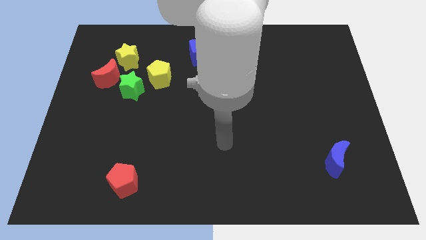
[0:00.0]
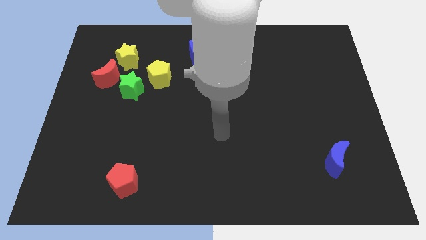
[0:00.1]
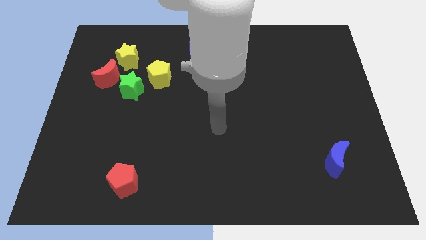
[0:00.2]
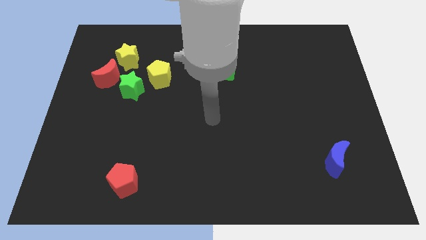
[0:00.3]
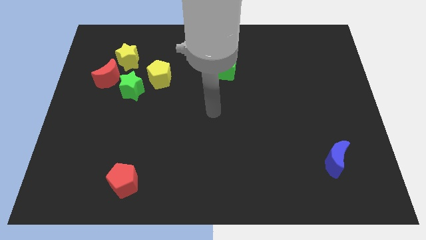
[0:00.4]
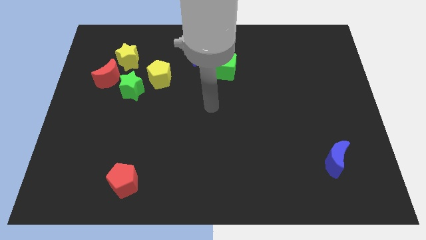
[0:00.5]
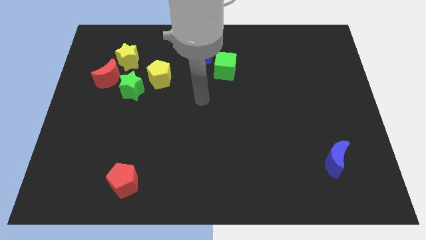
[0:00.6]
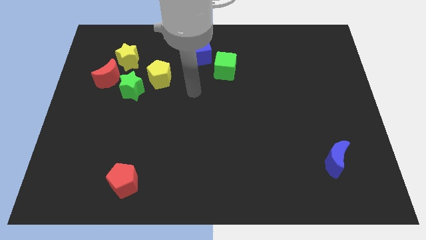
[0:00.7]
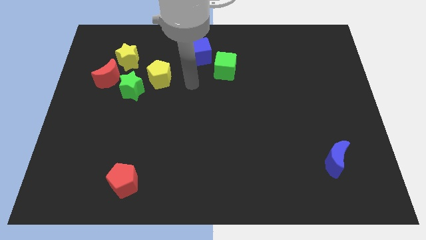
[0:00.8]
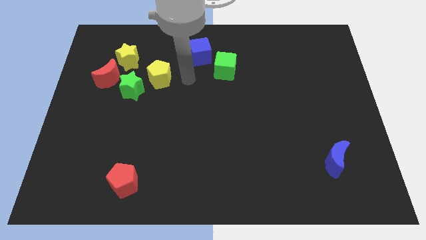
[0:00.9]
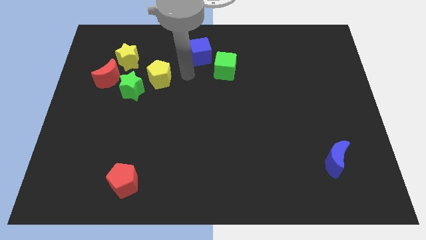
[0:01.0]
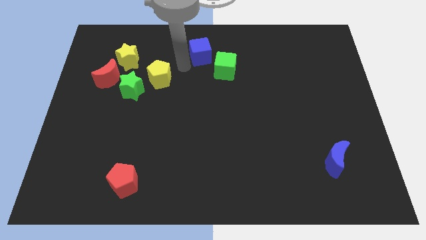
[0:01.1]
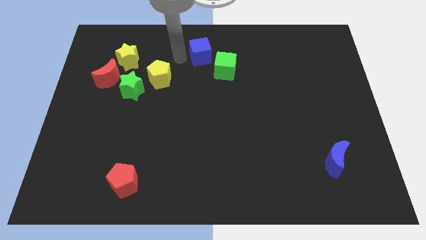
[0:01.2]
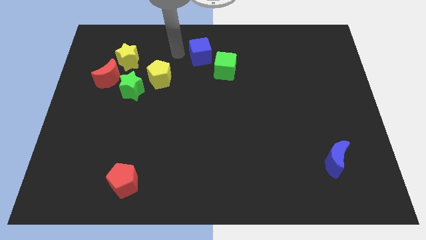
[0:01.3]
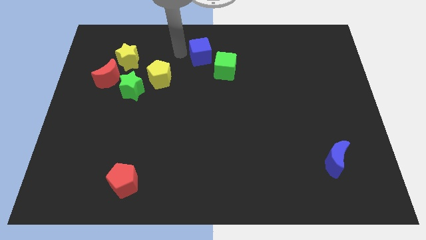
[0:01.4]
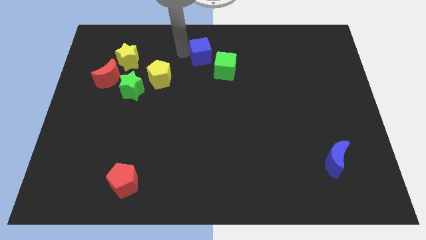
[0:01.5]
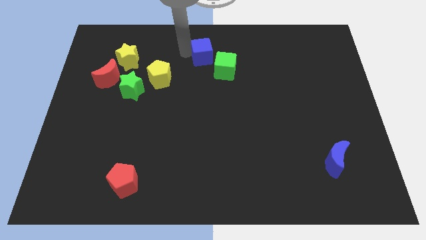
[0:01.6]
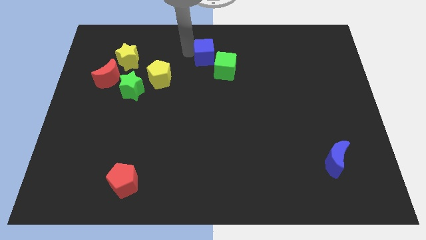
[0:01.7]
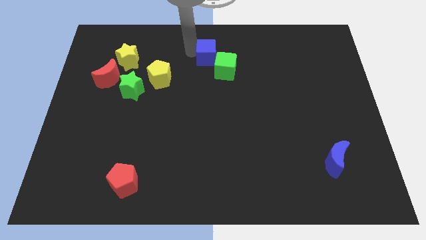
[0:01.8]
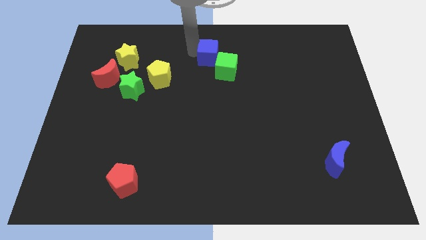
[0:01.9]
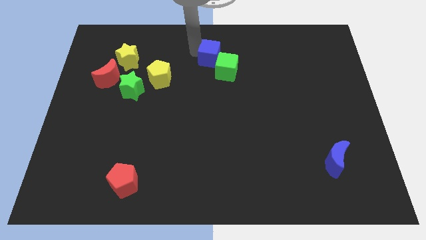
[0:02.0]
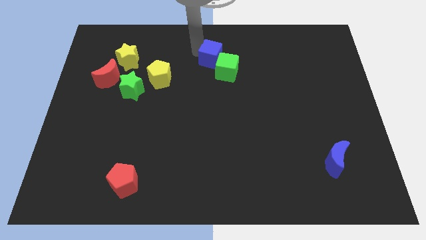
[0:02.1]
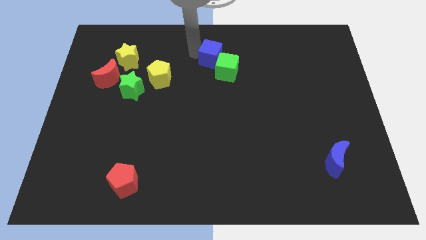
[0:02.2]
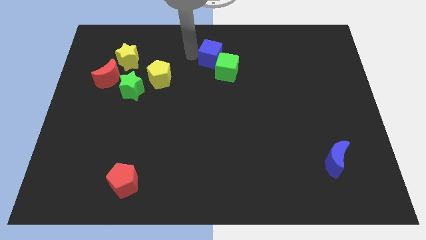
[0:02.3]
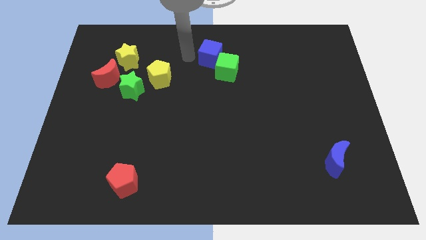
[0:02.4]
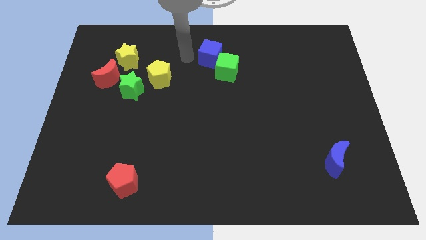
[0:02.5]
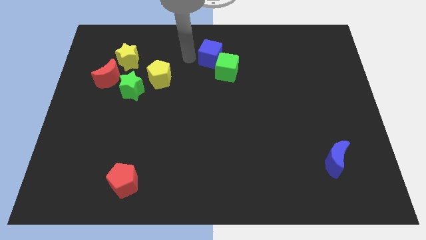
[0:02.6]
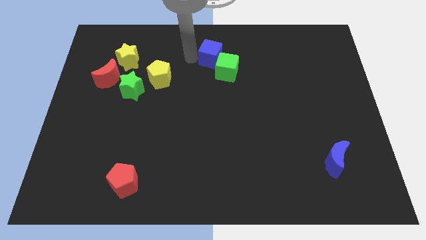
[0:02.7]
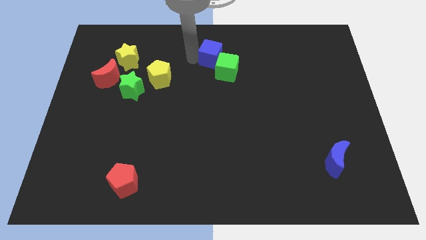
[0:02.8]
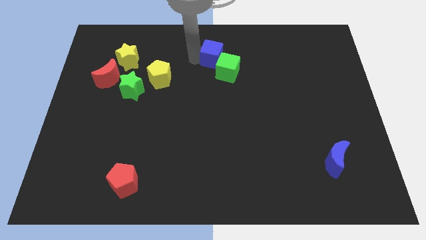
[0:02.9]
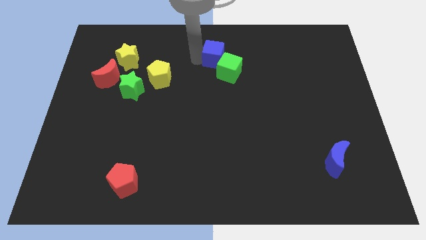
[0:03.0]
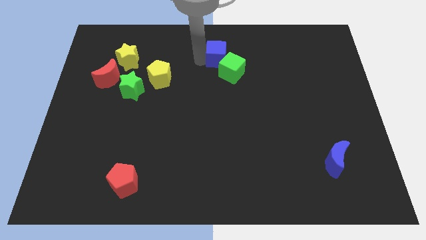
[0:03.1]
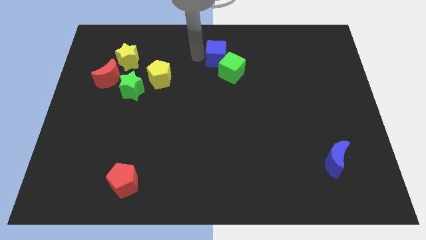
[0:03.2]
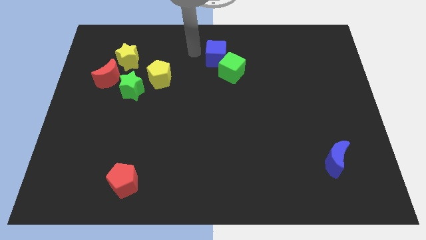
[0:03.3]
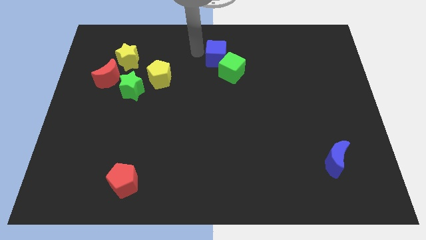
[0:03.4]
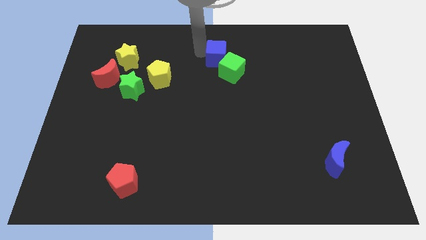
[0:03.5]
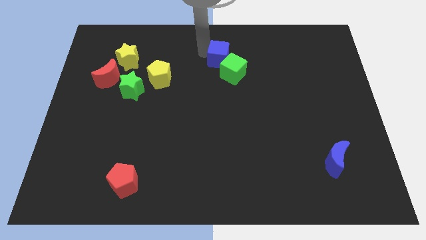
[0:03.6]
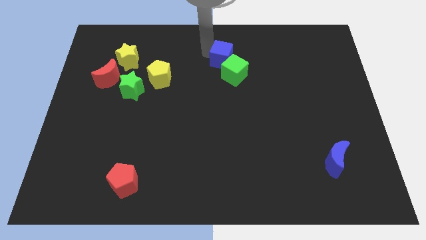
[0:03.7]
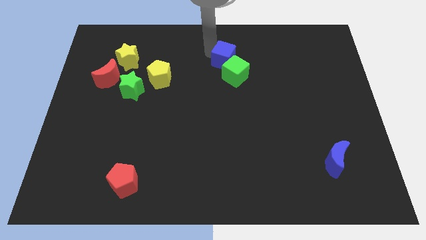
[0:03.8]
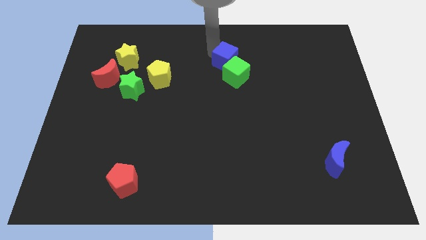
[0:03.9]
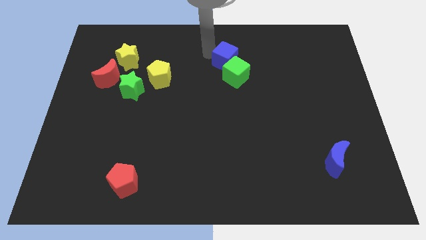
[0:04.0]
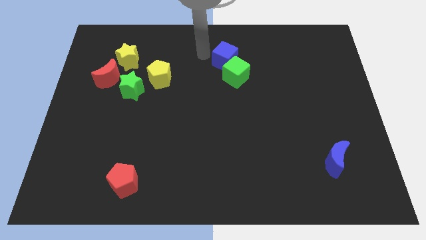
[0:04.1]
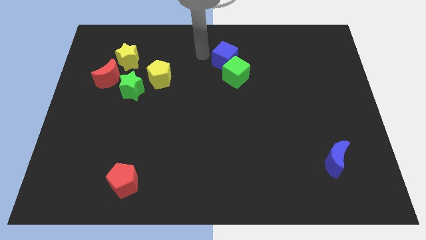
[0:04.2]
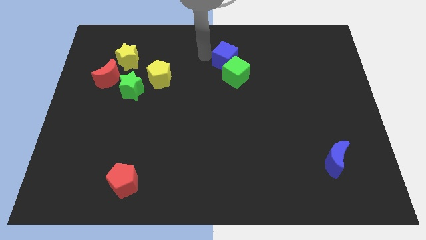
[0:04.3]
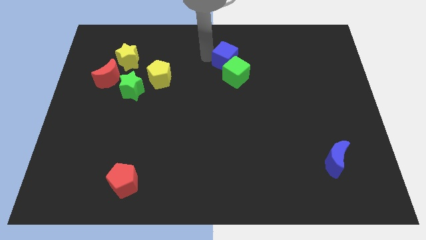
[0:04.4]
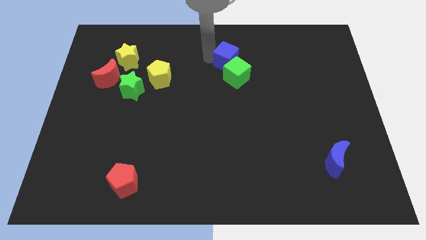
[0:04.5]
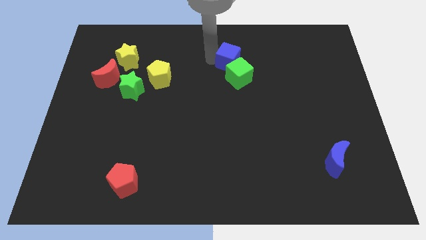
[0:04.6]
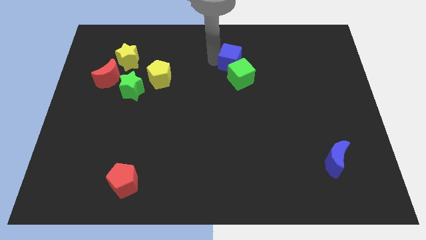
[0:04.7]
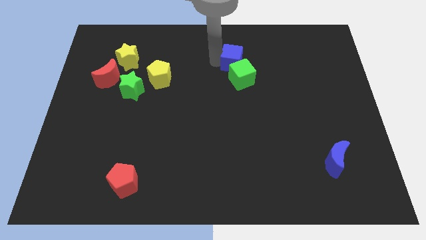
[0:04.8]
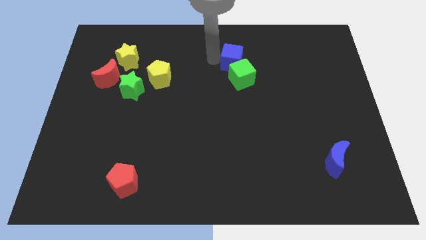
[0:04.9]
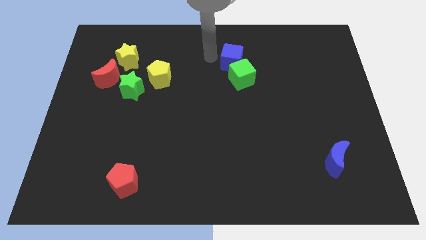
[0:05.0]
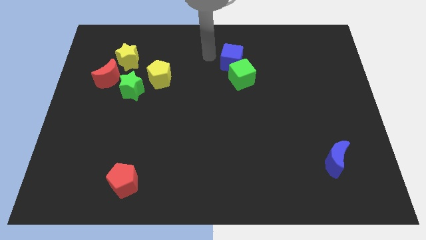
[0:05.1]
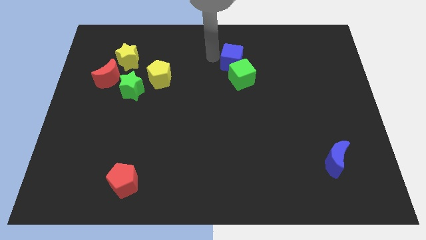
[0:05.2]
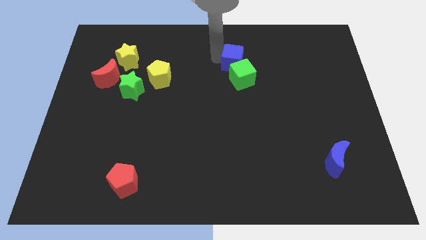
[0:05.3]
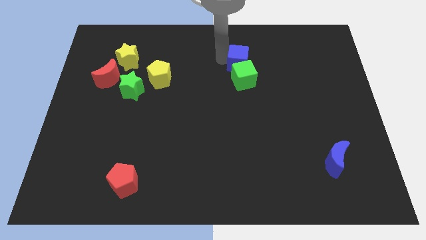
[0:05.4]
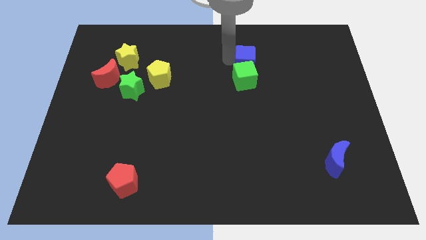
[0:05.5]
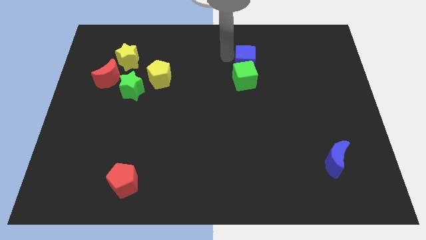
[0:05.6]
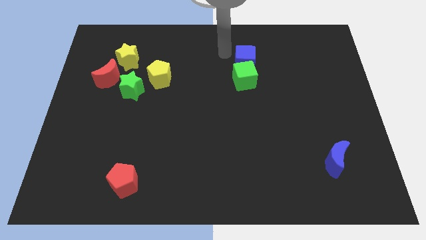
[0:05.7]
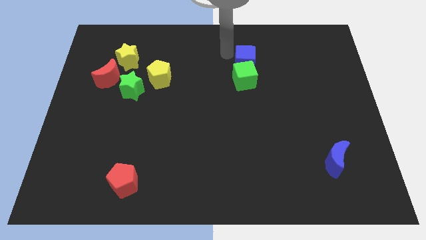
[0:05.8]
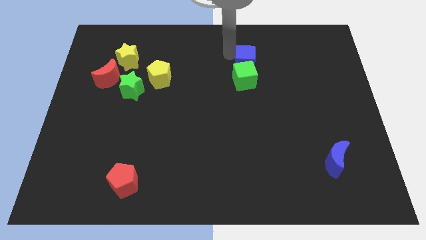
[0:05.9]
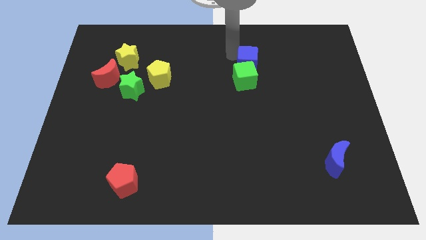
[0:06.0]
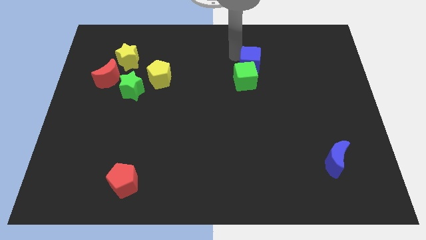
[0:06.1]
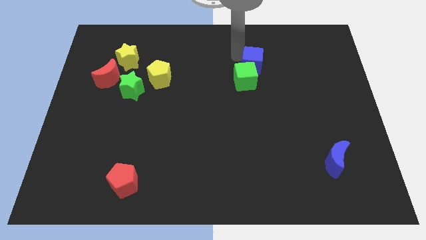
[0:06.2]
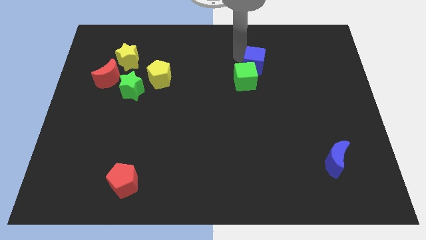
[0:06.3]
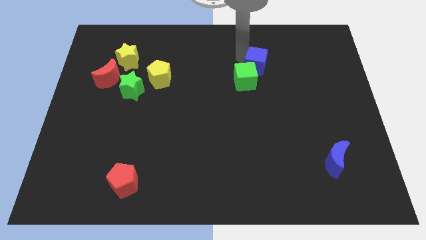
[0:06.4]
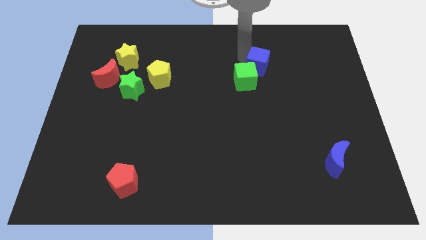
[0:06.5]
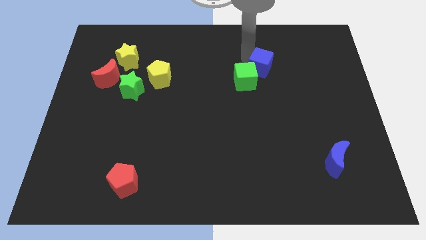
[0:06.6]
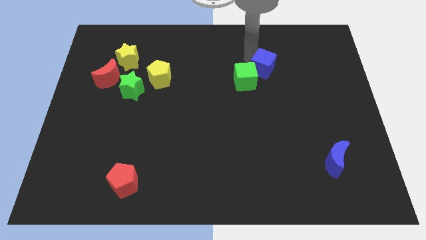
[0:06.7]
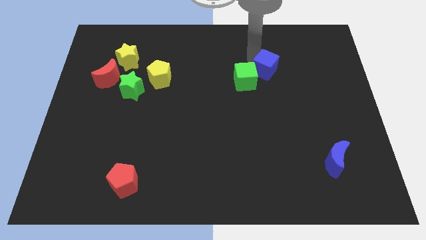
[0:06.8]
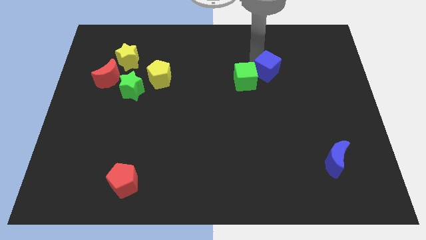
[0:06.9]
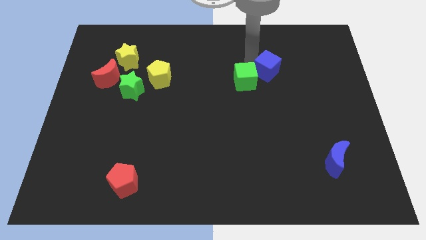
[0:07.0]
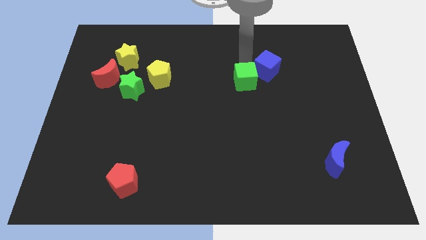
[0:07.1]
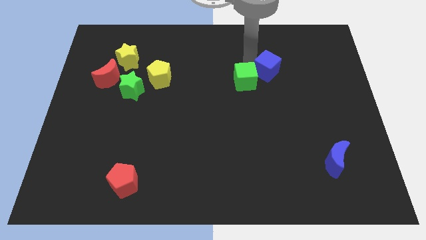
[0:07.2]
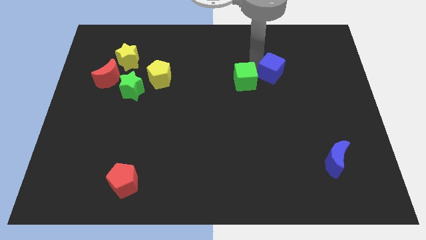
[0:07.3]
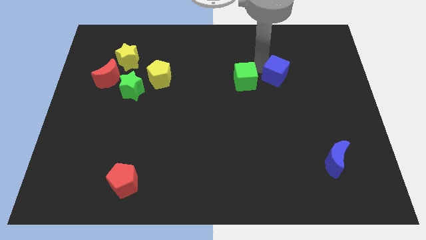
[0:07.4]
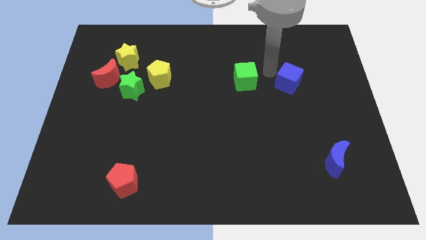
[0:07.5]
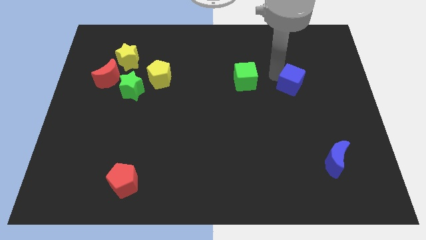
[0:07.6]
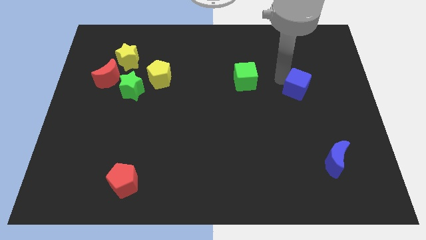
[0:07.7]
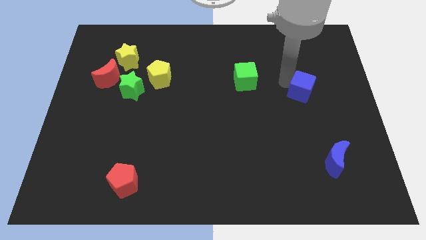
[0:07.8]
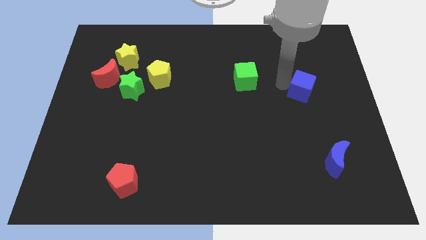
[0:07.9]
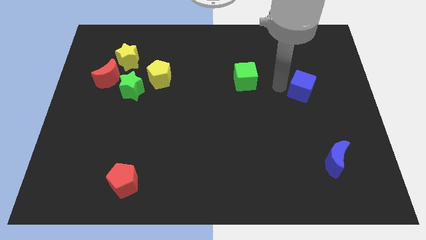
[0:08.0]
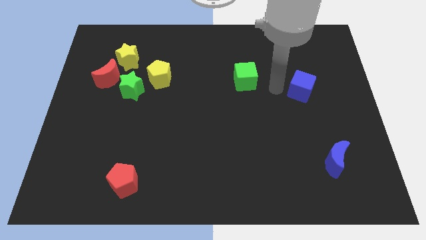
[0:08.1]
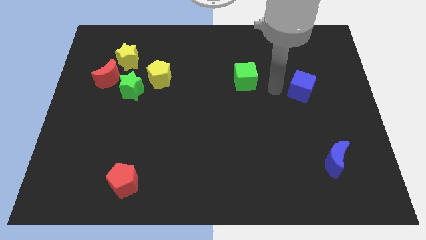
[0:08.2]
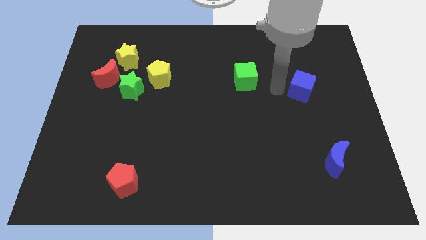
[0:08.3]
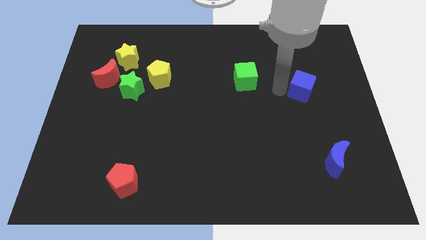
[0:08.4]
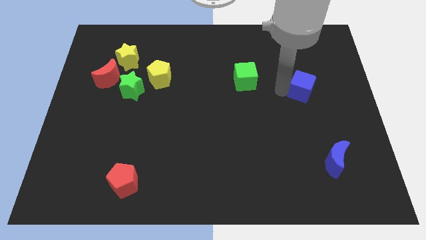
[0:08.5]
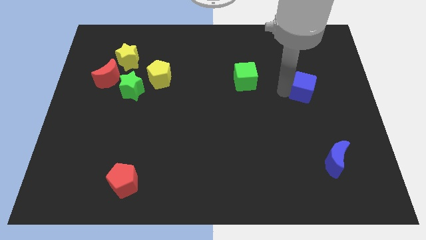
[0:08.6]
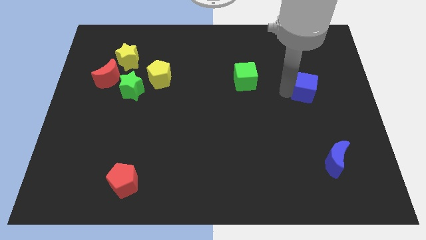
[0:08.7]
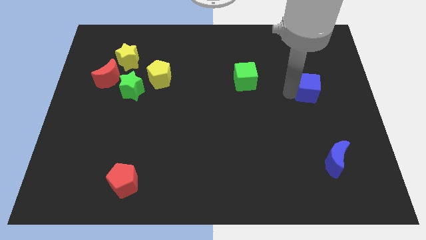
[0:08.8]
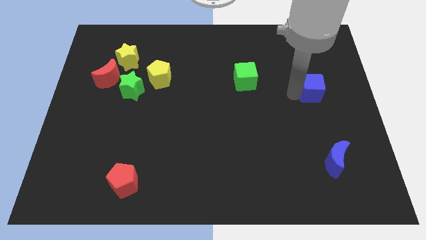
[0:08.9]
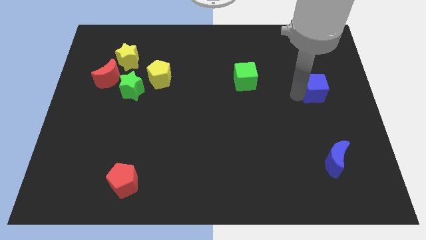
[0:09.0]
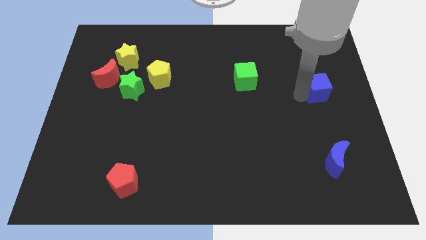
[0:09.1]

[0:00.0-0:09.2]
slide the blue cube to the right side of the board
